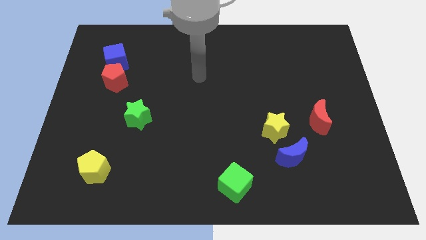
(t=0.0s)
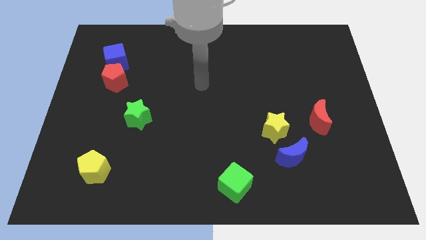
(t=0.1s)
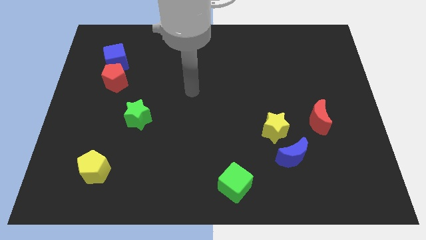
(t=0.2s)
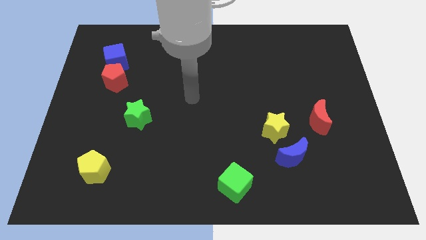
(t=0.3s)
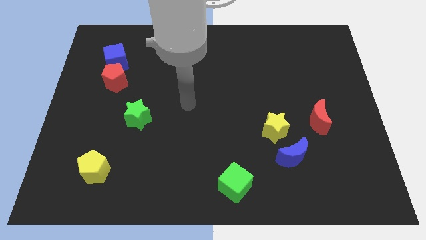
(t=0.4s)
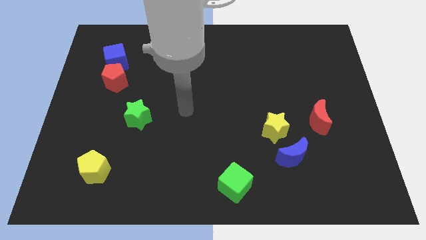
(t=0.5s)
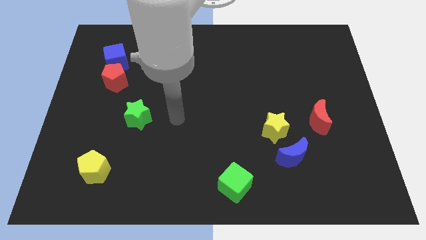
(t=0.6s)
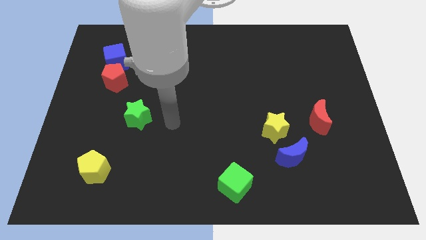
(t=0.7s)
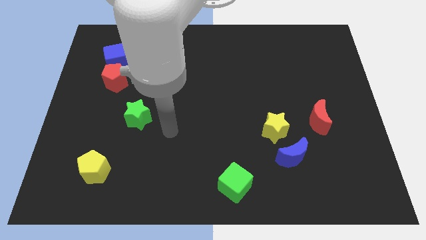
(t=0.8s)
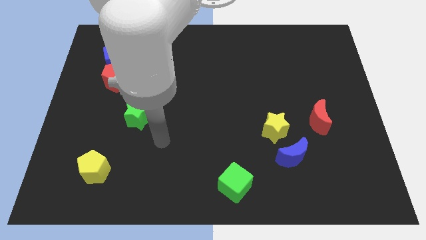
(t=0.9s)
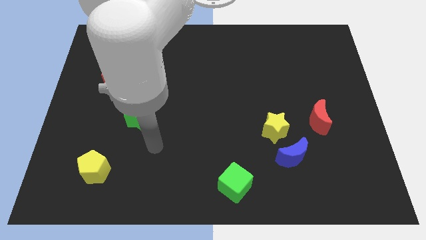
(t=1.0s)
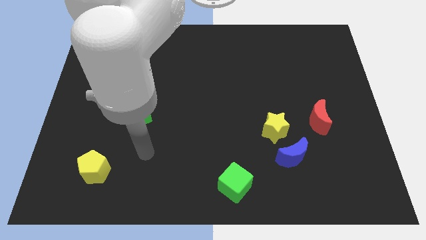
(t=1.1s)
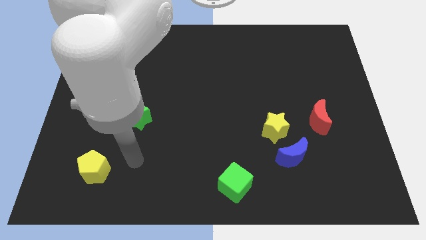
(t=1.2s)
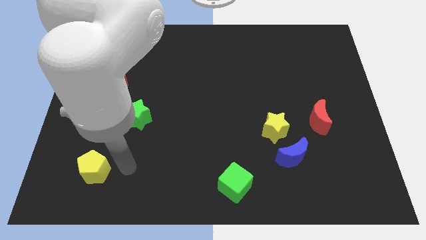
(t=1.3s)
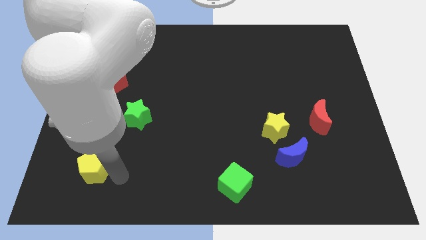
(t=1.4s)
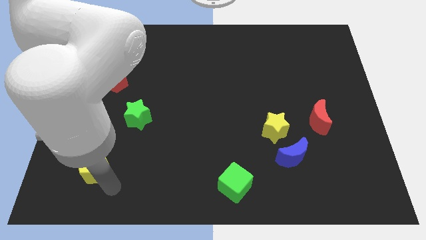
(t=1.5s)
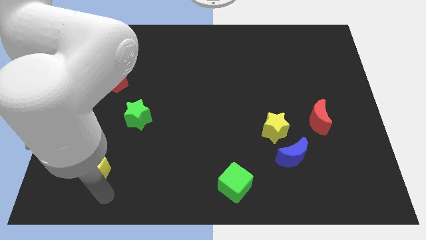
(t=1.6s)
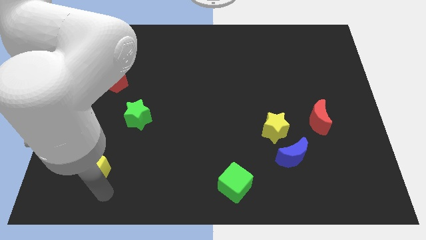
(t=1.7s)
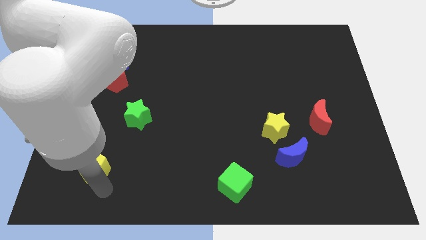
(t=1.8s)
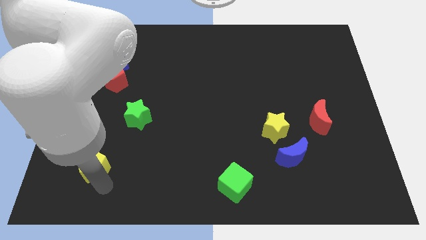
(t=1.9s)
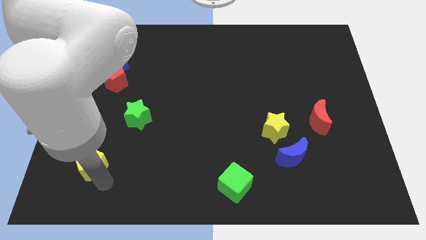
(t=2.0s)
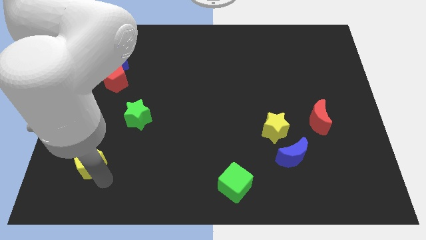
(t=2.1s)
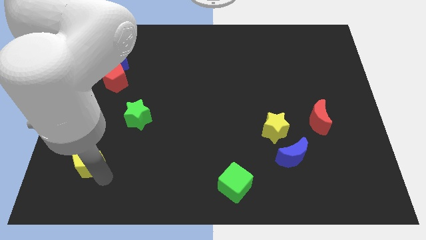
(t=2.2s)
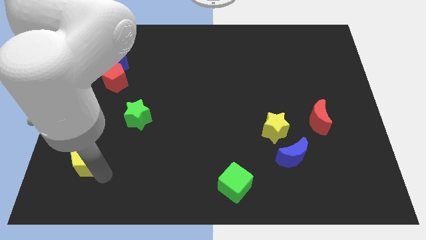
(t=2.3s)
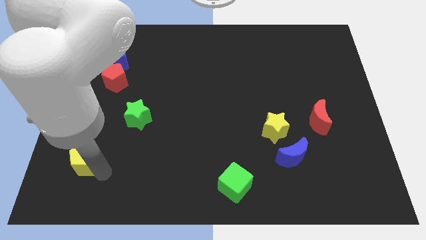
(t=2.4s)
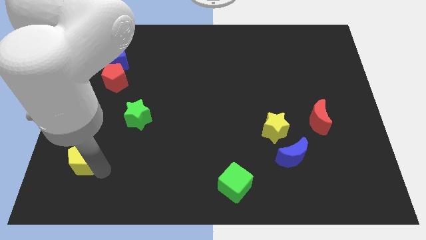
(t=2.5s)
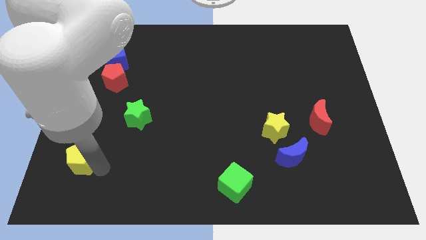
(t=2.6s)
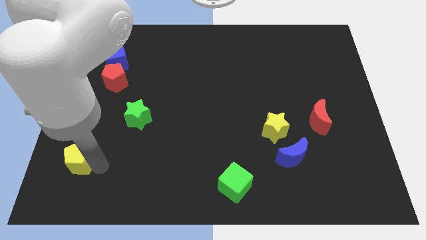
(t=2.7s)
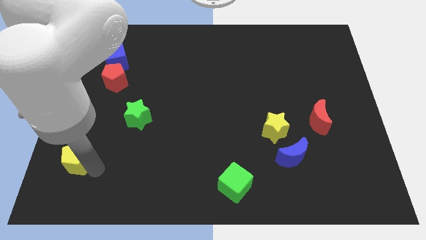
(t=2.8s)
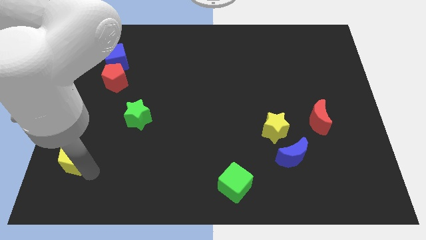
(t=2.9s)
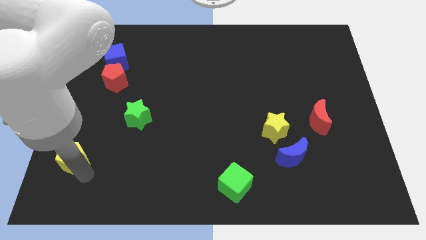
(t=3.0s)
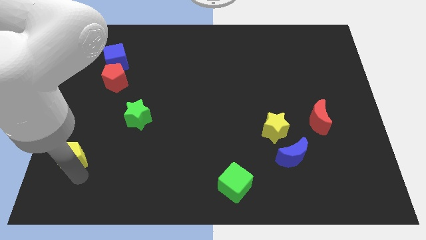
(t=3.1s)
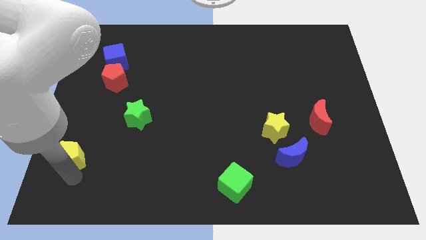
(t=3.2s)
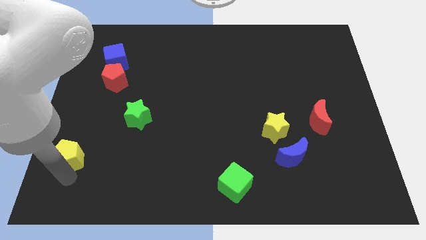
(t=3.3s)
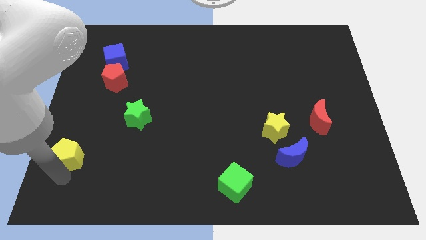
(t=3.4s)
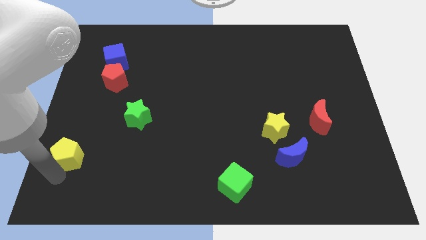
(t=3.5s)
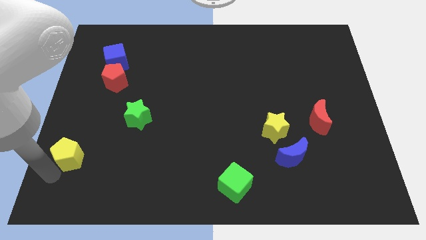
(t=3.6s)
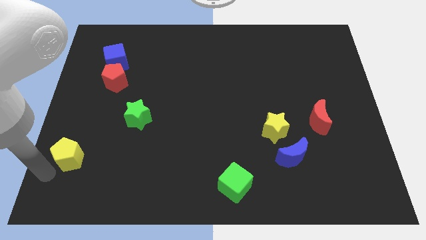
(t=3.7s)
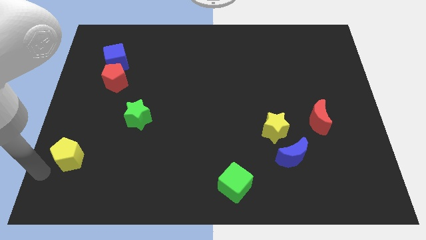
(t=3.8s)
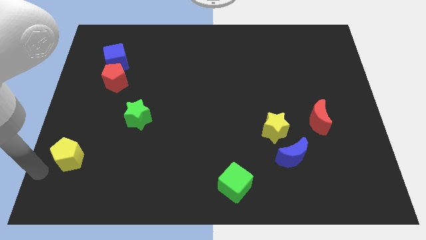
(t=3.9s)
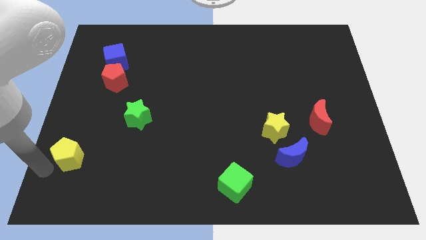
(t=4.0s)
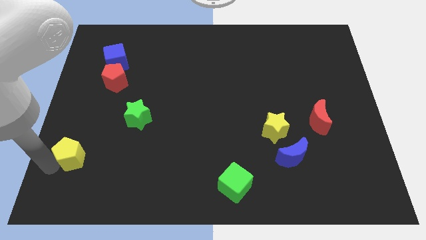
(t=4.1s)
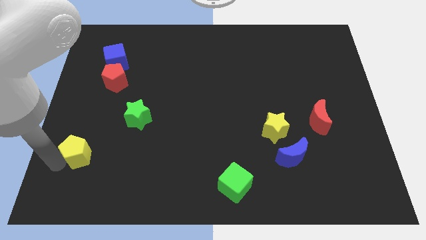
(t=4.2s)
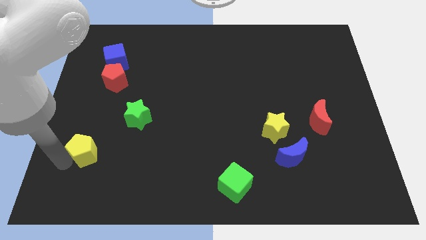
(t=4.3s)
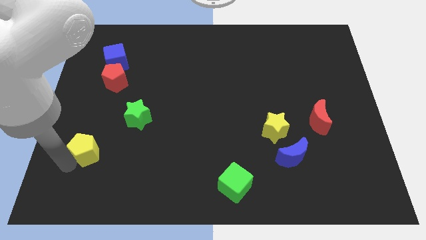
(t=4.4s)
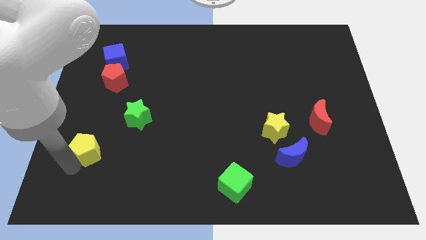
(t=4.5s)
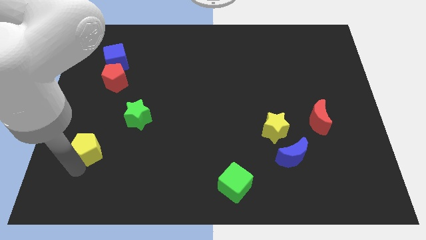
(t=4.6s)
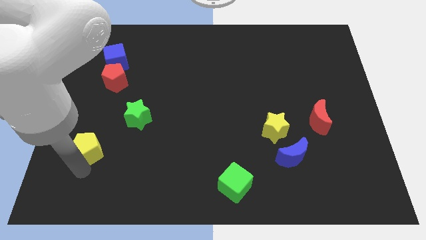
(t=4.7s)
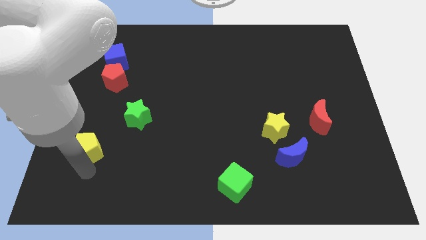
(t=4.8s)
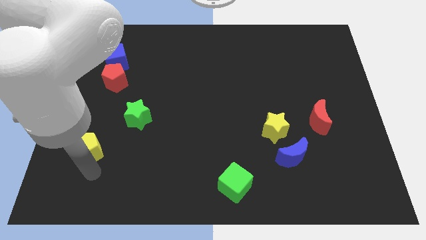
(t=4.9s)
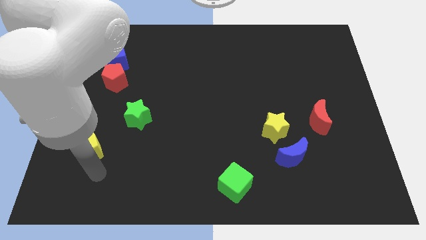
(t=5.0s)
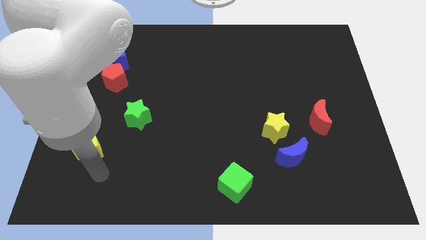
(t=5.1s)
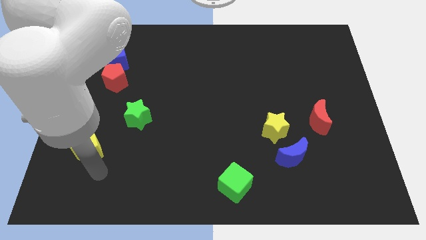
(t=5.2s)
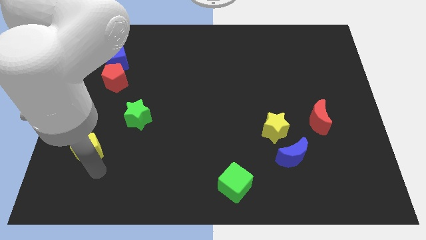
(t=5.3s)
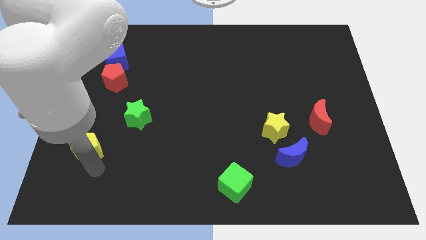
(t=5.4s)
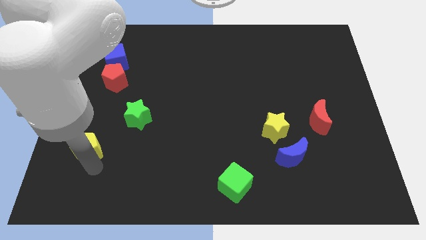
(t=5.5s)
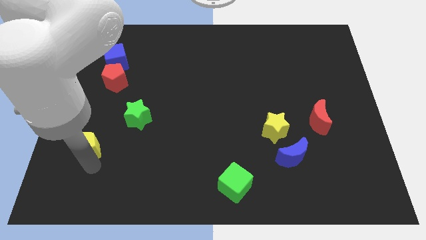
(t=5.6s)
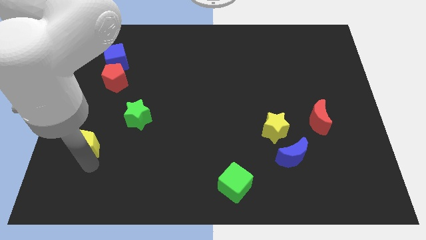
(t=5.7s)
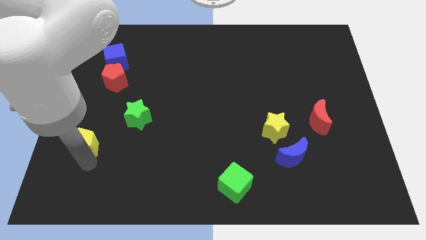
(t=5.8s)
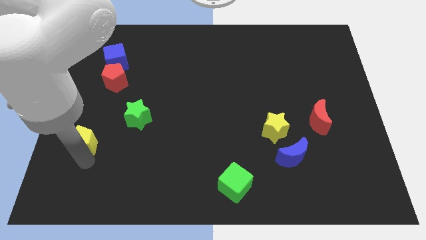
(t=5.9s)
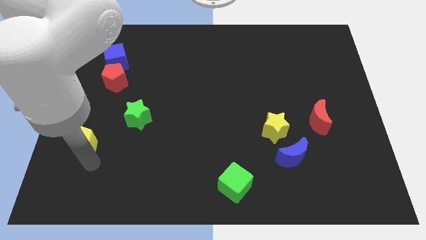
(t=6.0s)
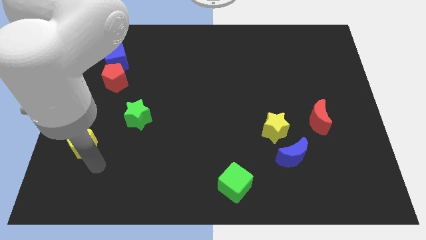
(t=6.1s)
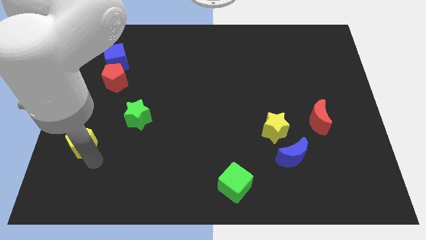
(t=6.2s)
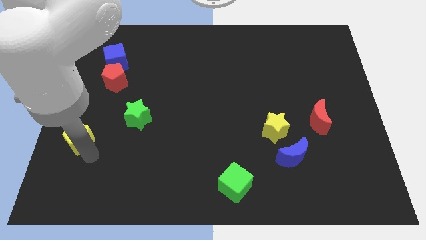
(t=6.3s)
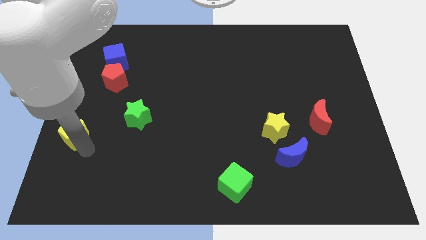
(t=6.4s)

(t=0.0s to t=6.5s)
put the yellow pentagon to the left side of the board
